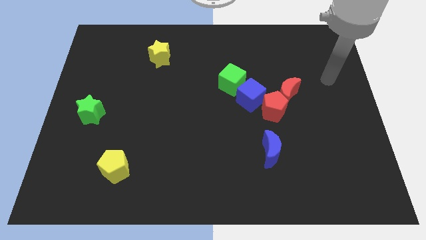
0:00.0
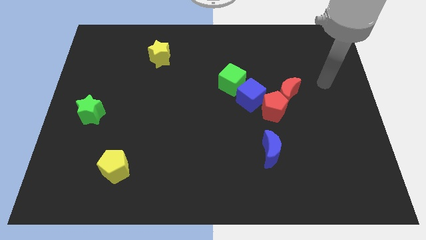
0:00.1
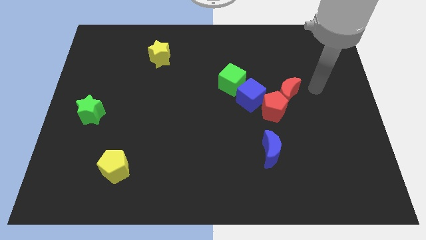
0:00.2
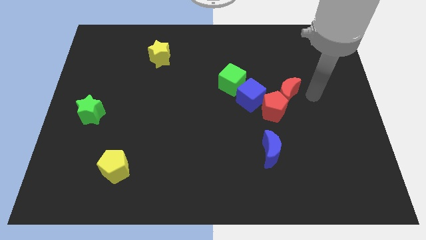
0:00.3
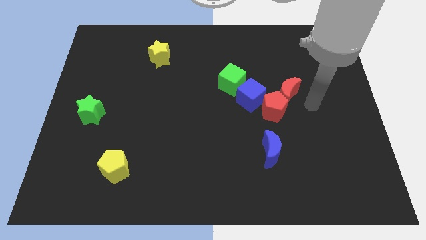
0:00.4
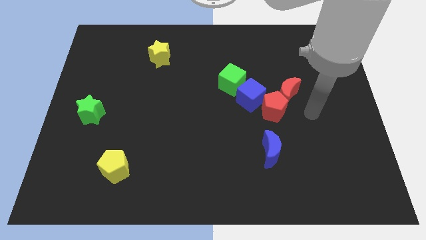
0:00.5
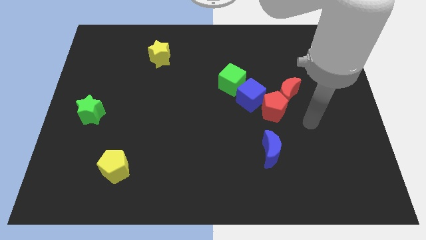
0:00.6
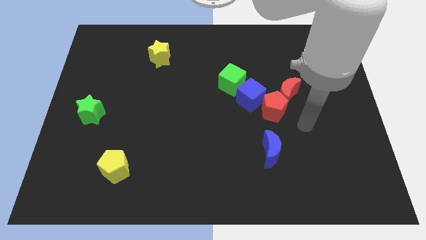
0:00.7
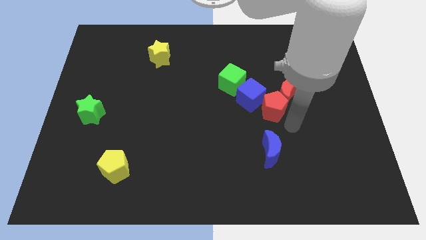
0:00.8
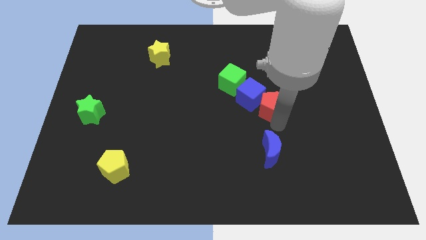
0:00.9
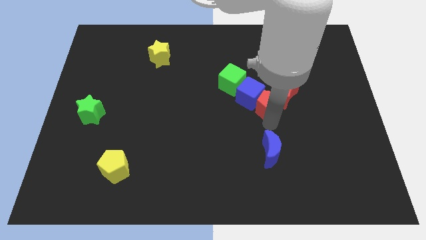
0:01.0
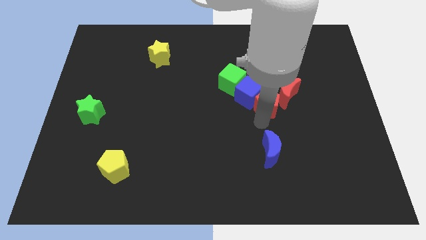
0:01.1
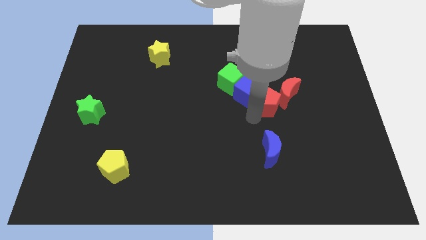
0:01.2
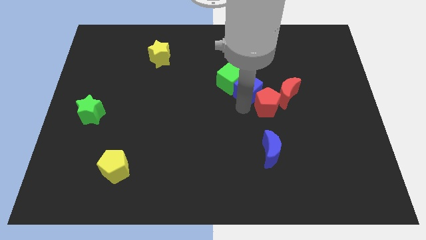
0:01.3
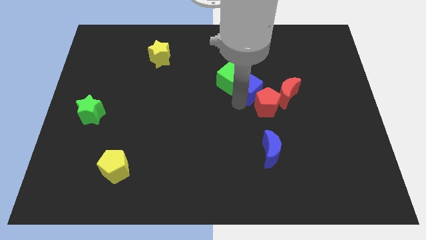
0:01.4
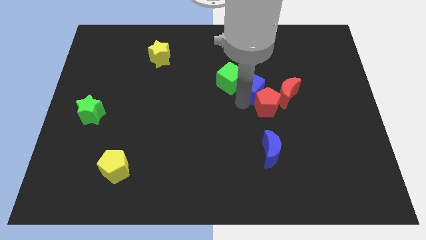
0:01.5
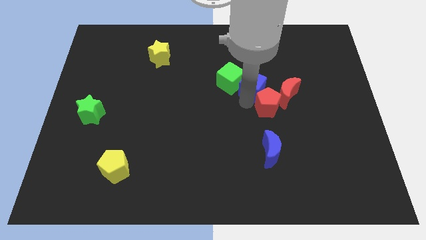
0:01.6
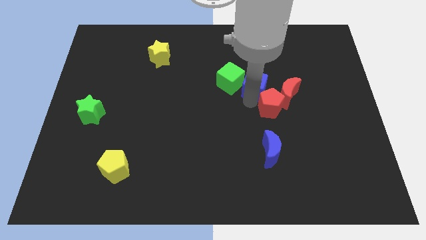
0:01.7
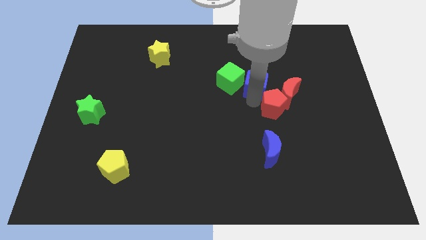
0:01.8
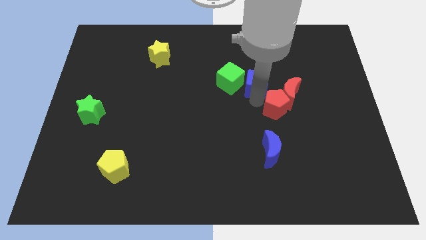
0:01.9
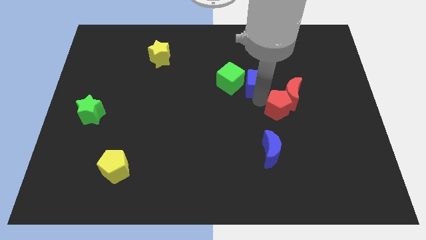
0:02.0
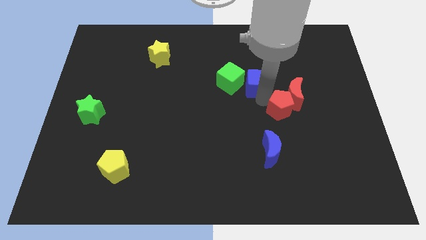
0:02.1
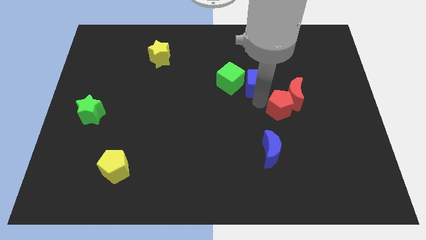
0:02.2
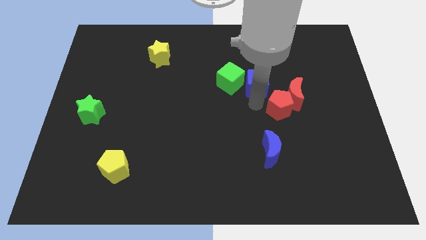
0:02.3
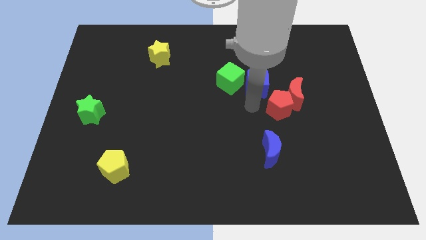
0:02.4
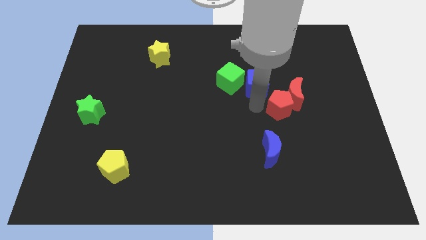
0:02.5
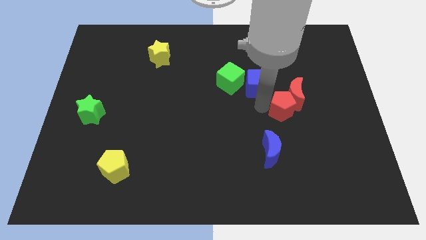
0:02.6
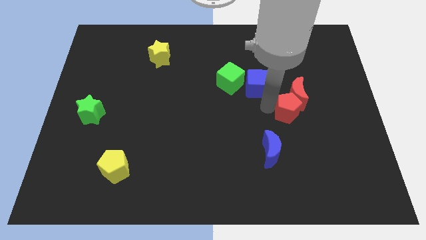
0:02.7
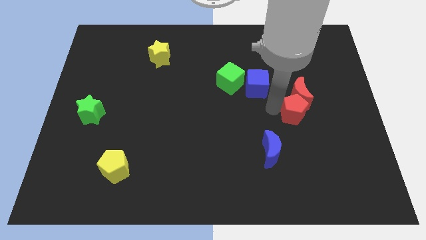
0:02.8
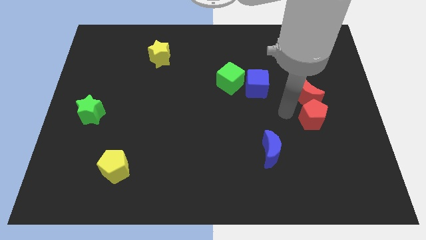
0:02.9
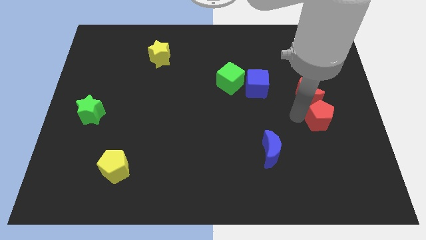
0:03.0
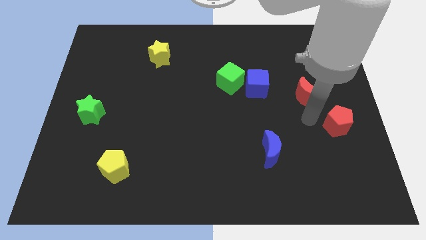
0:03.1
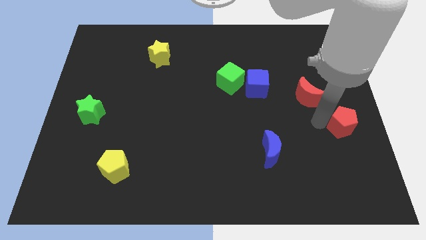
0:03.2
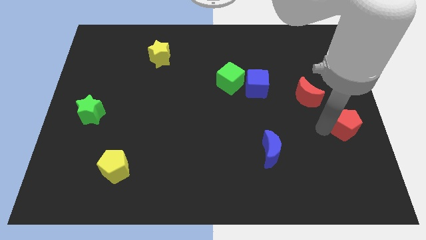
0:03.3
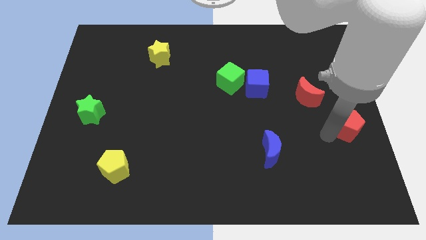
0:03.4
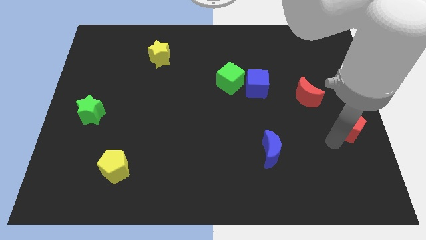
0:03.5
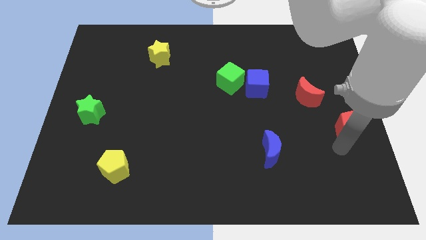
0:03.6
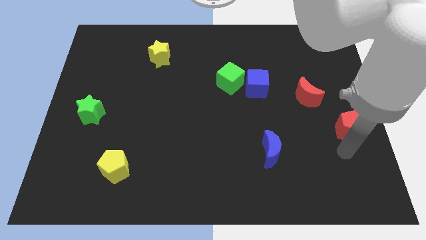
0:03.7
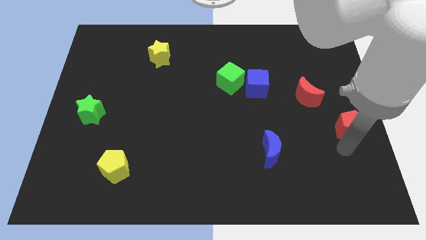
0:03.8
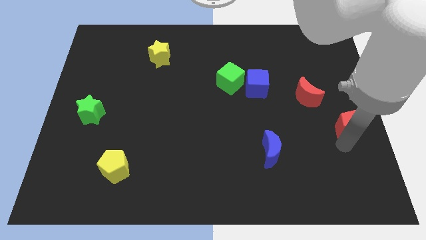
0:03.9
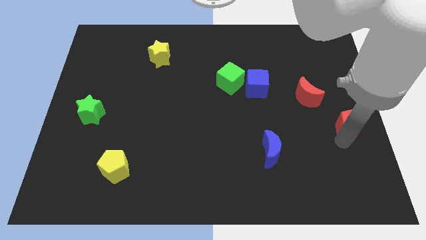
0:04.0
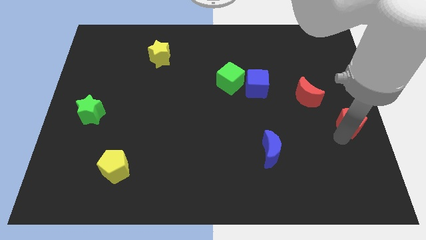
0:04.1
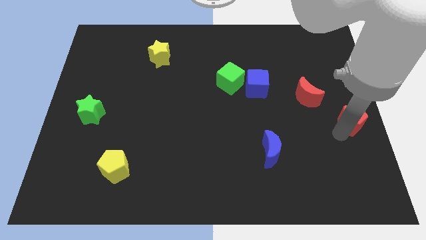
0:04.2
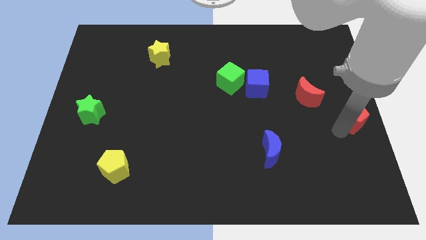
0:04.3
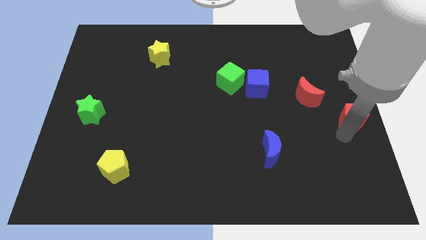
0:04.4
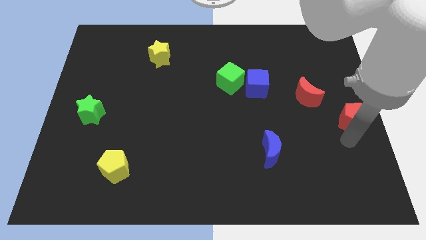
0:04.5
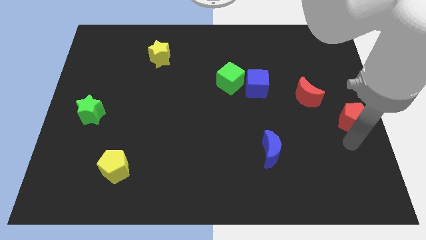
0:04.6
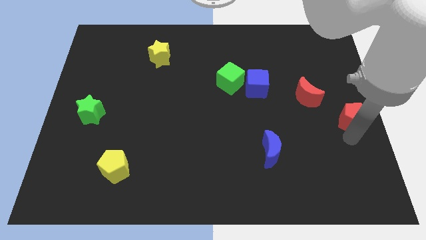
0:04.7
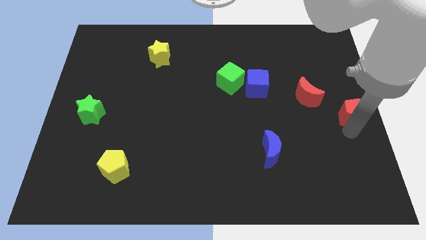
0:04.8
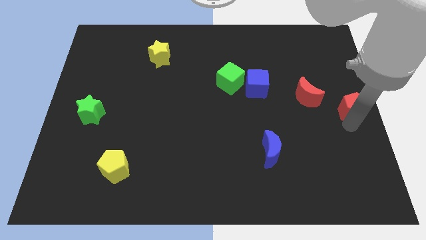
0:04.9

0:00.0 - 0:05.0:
move the red pentagon right of the red moon

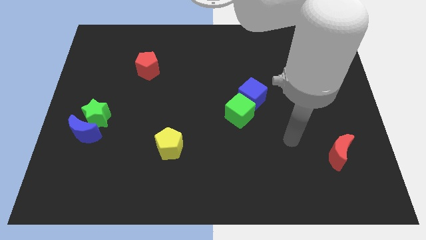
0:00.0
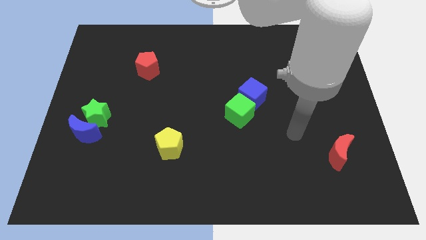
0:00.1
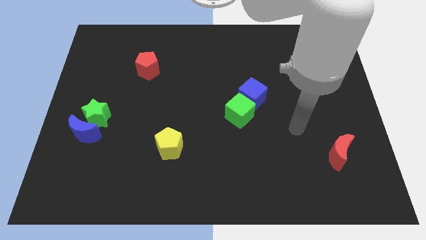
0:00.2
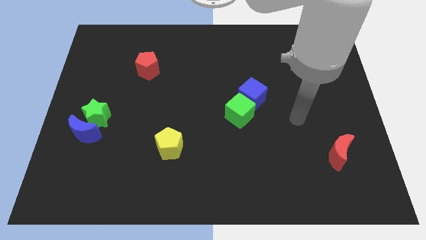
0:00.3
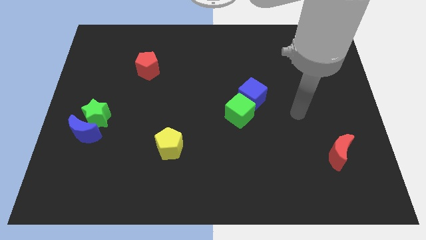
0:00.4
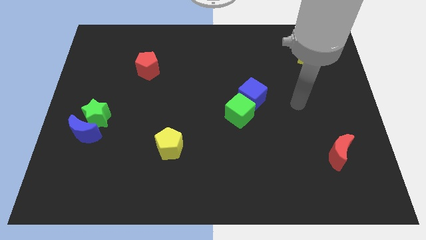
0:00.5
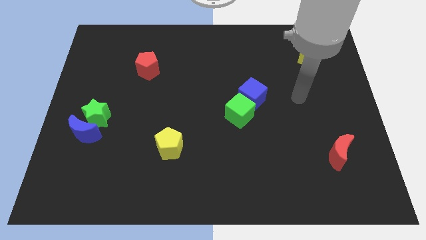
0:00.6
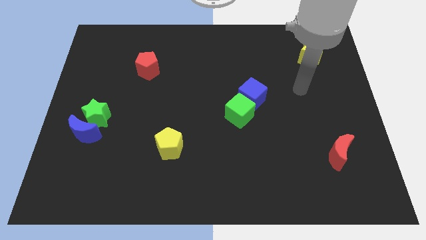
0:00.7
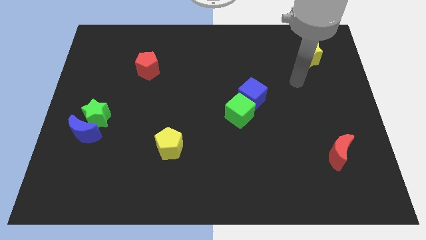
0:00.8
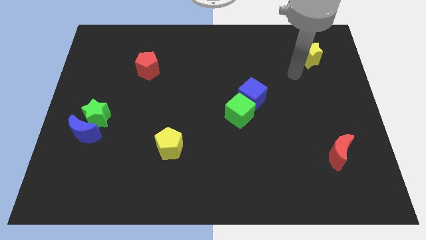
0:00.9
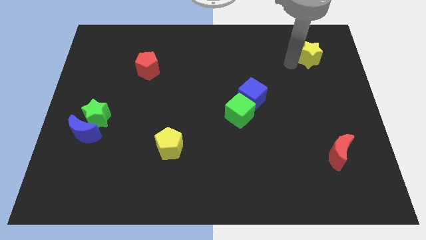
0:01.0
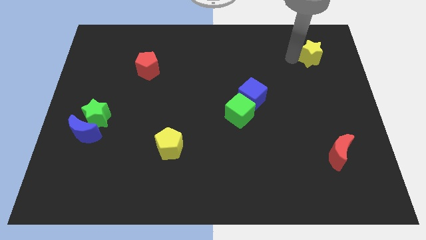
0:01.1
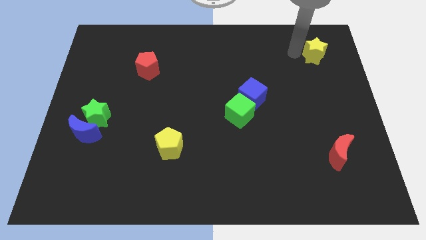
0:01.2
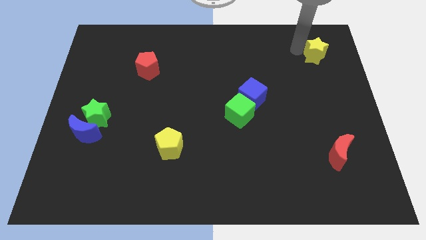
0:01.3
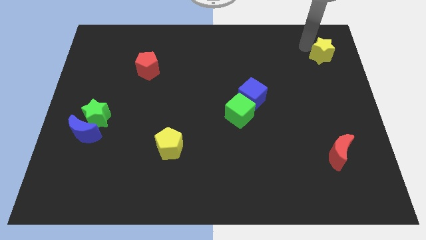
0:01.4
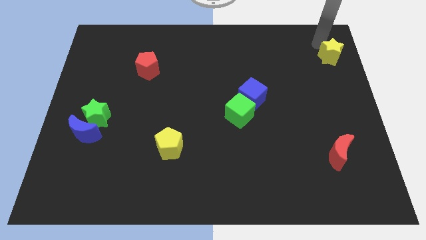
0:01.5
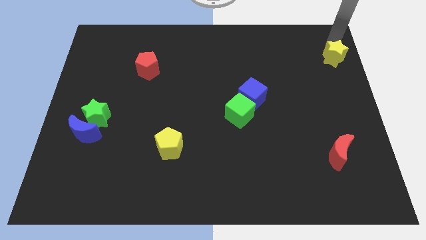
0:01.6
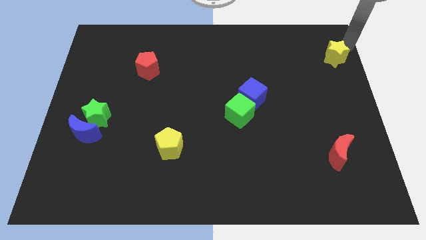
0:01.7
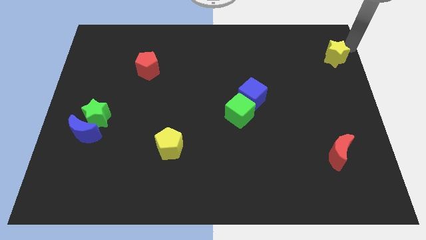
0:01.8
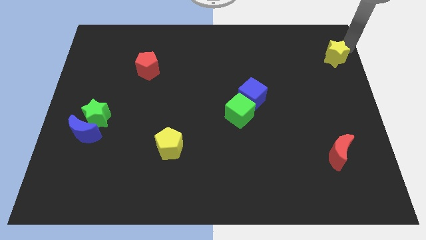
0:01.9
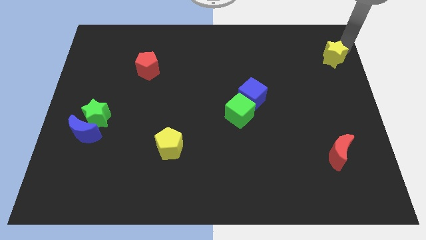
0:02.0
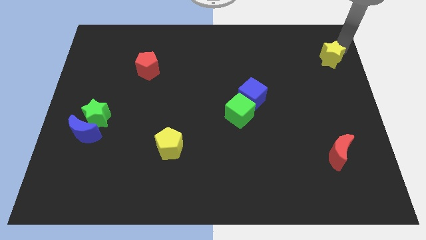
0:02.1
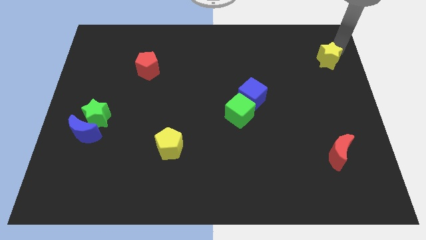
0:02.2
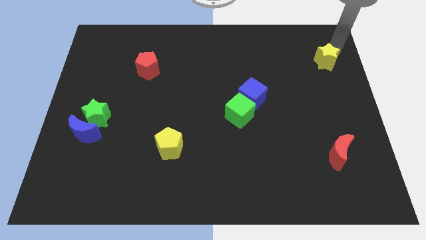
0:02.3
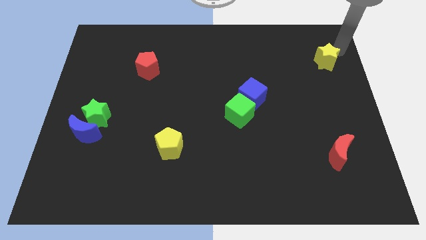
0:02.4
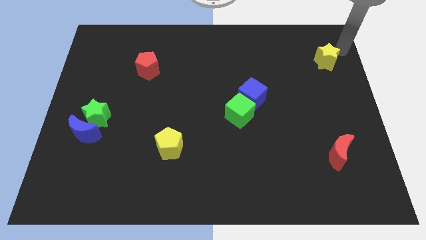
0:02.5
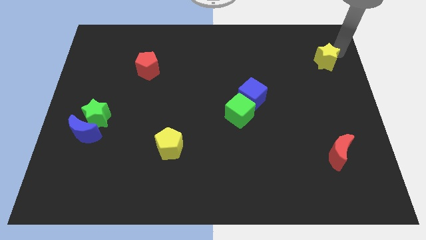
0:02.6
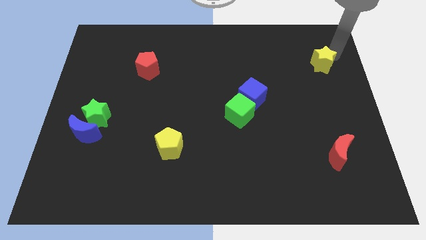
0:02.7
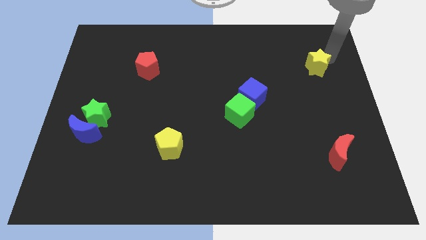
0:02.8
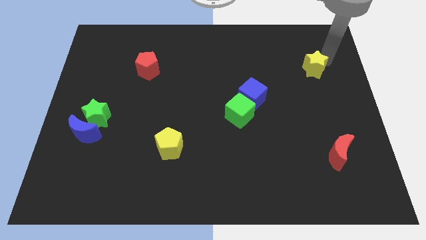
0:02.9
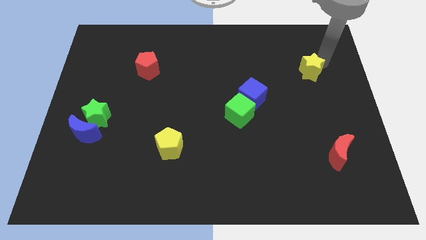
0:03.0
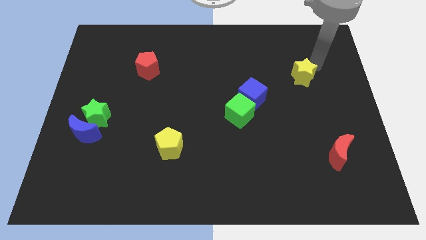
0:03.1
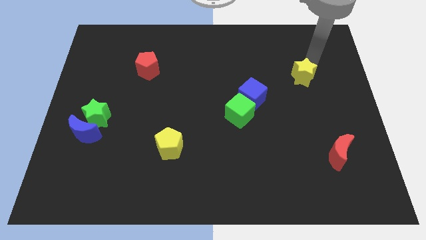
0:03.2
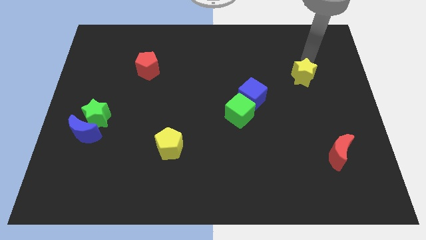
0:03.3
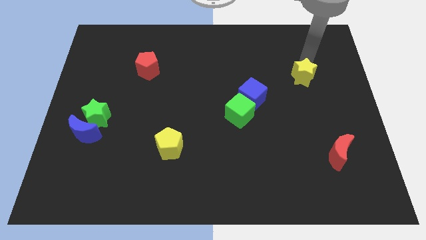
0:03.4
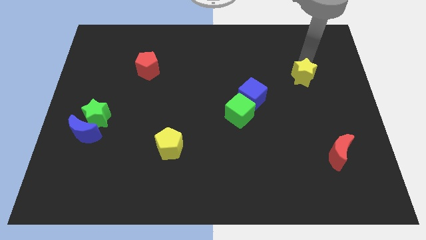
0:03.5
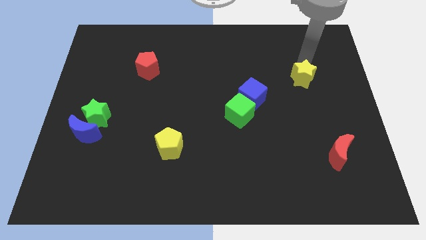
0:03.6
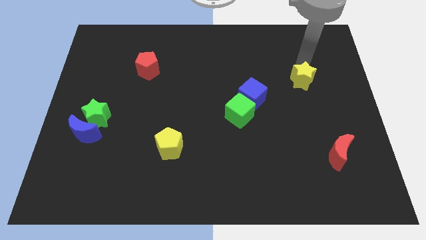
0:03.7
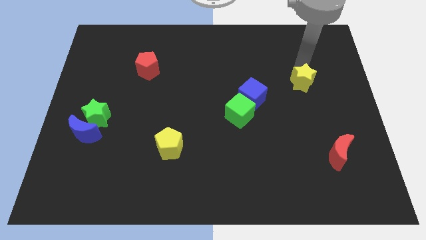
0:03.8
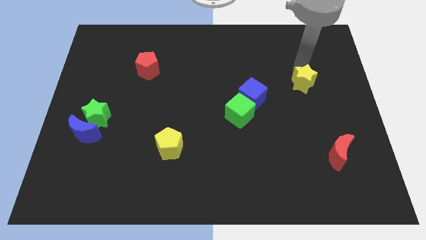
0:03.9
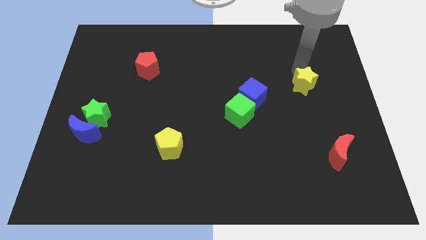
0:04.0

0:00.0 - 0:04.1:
slide the yellow star right of the blue cube
